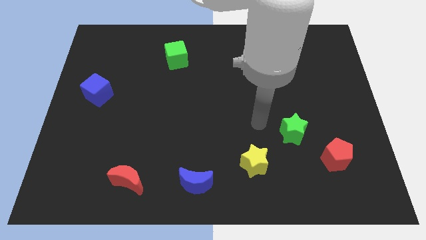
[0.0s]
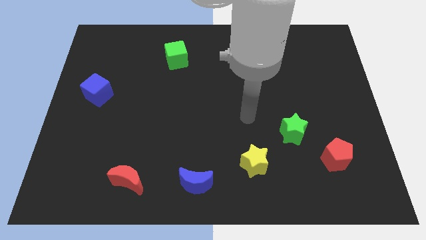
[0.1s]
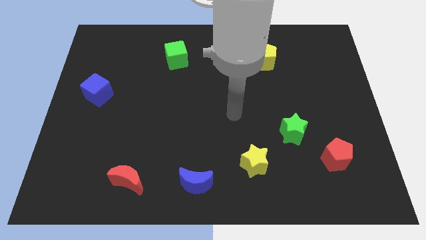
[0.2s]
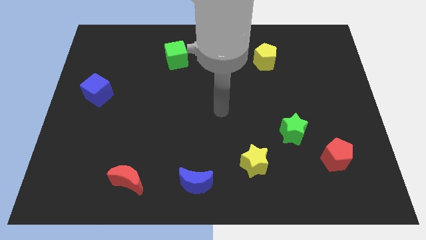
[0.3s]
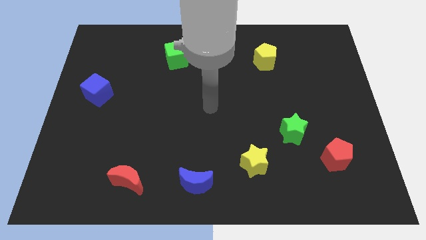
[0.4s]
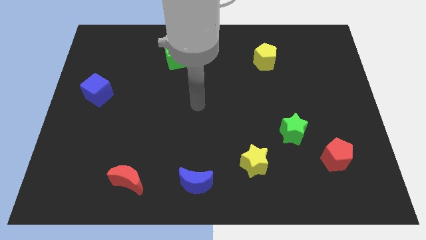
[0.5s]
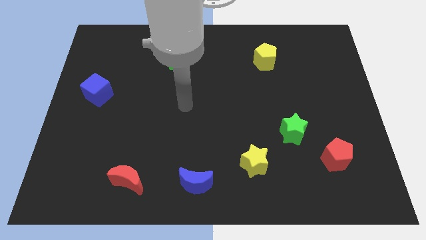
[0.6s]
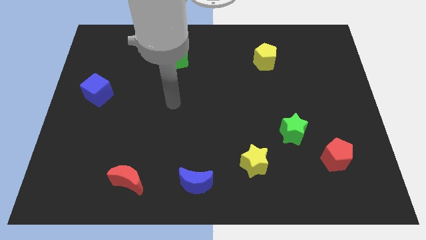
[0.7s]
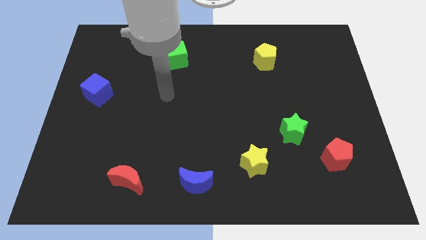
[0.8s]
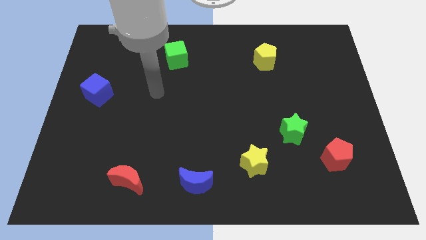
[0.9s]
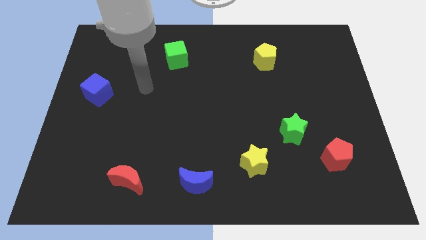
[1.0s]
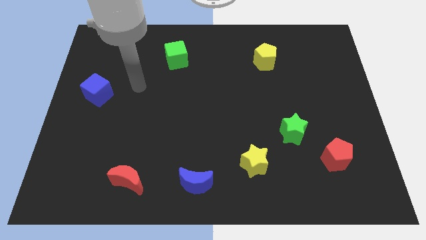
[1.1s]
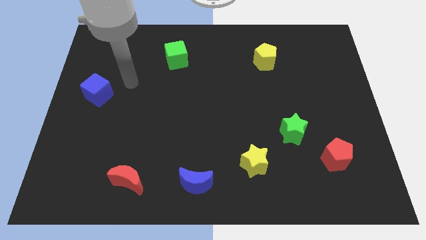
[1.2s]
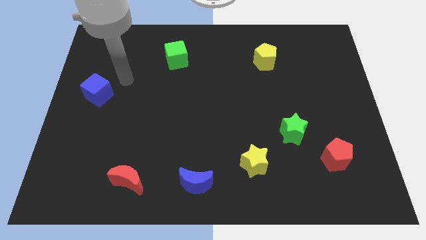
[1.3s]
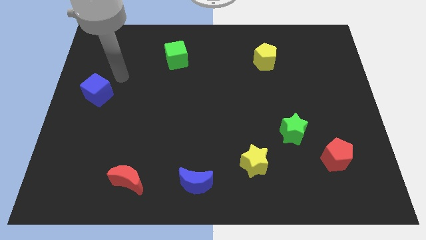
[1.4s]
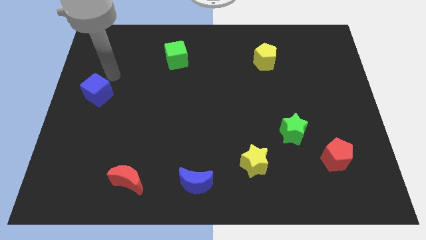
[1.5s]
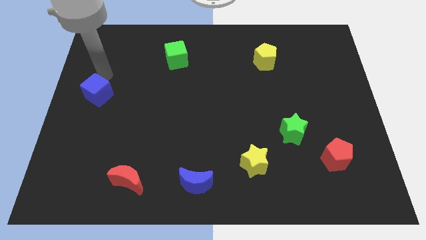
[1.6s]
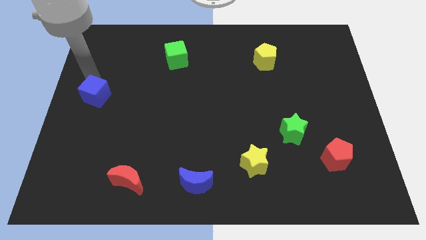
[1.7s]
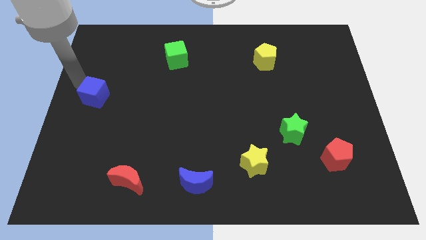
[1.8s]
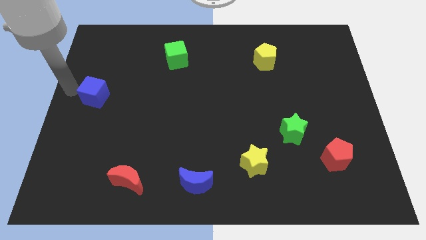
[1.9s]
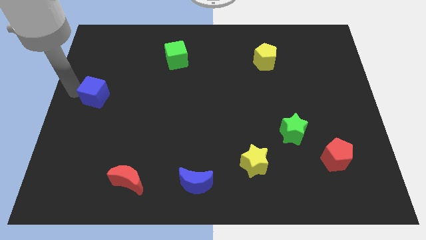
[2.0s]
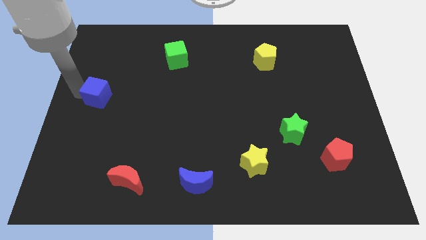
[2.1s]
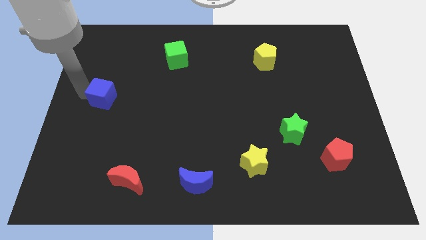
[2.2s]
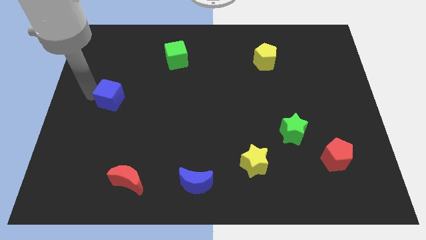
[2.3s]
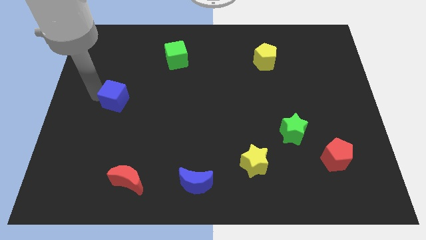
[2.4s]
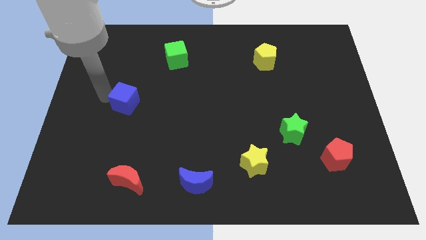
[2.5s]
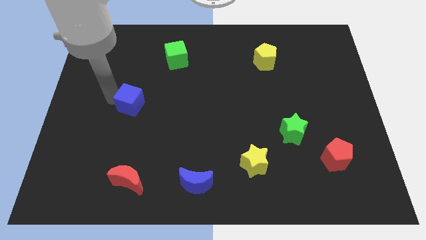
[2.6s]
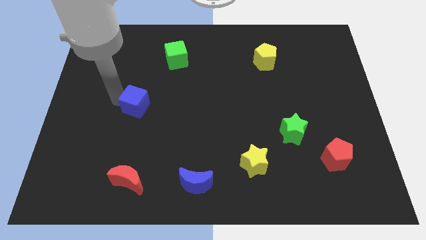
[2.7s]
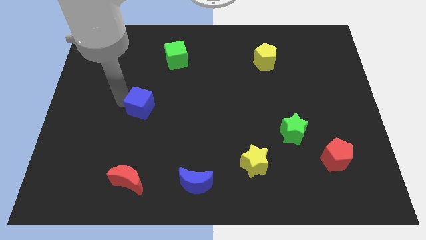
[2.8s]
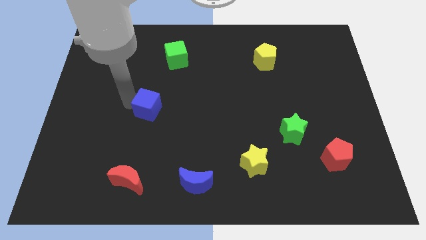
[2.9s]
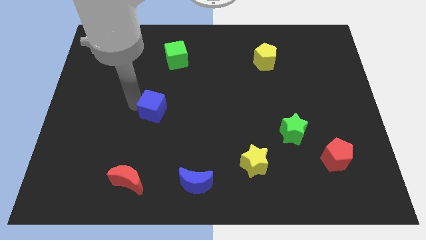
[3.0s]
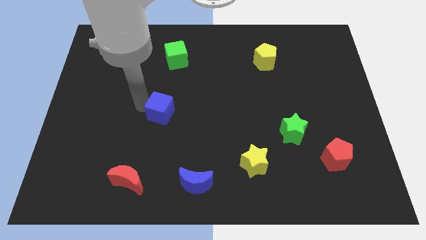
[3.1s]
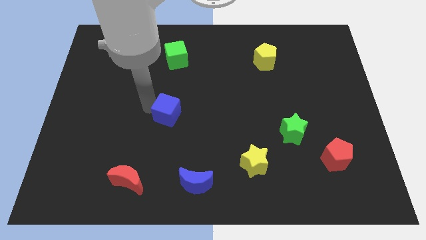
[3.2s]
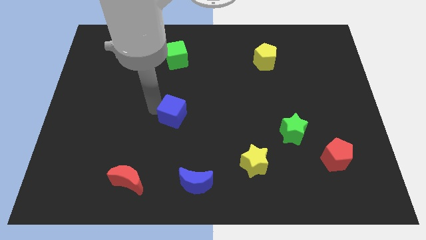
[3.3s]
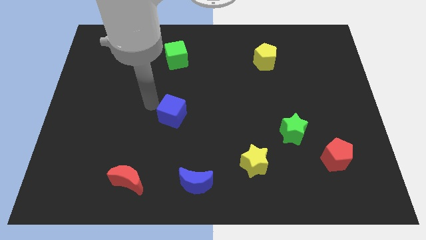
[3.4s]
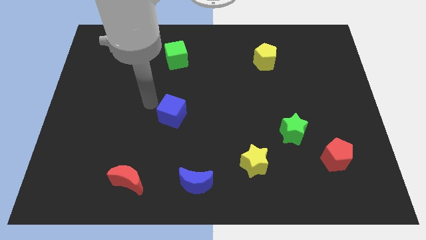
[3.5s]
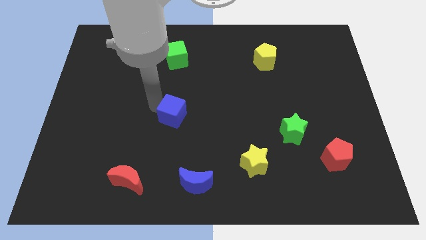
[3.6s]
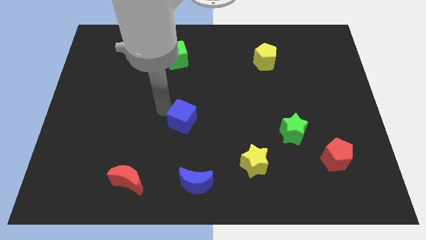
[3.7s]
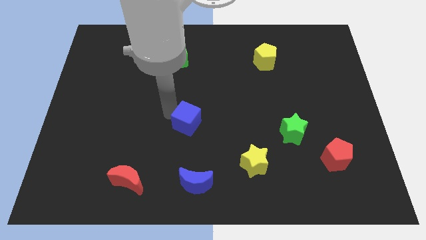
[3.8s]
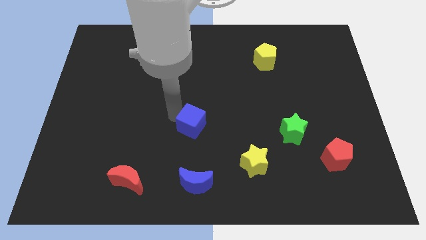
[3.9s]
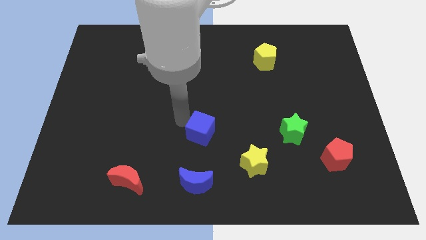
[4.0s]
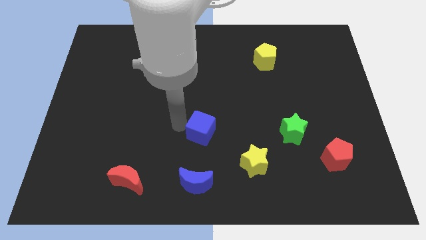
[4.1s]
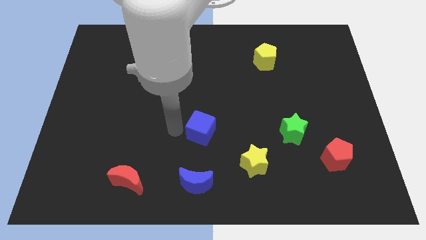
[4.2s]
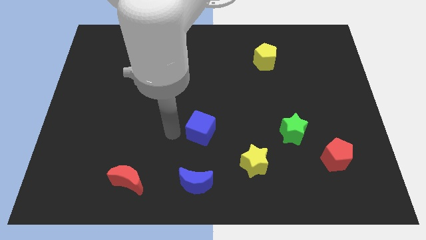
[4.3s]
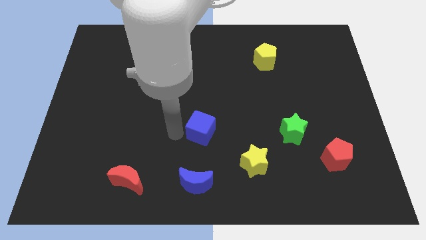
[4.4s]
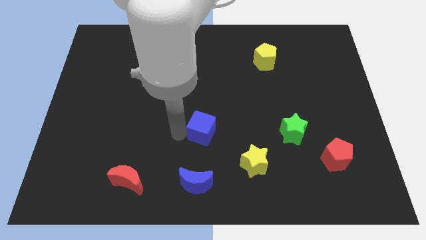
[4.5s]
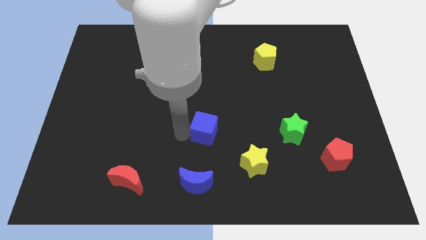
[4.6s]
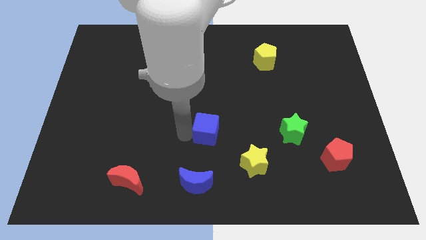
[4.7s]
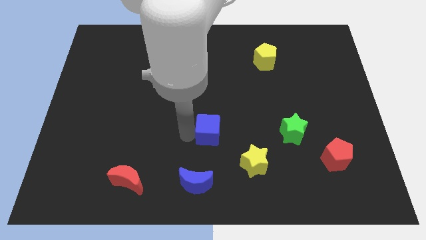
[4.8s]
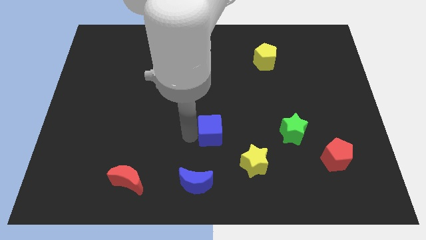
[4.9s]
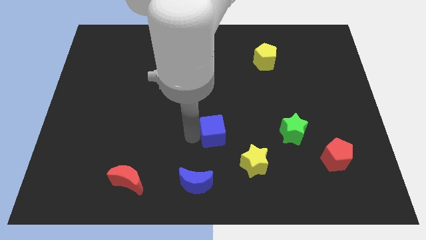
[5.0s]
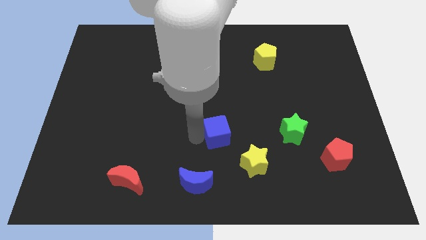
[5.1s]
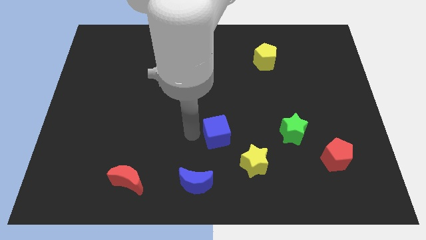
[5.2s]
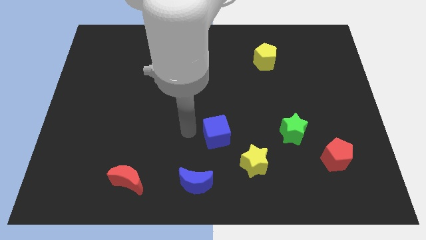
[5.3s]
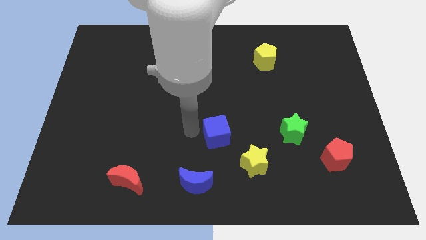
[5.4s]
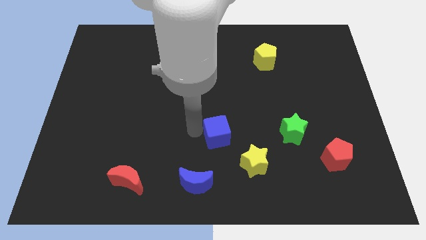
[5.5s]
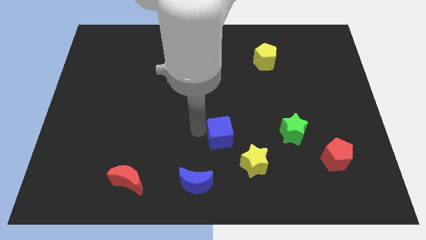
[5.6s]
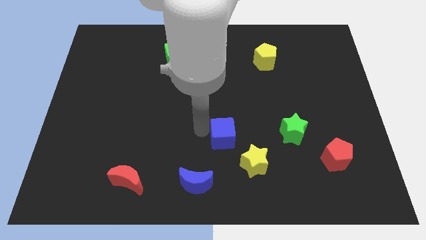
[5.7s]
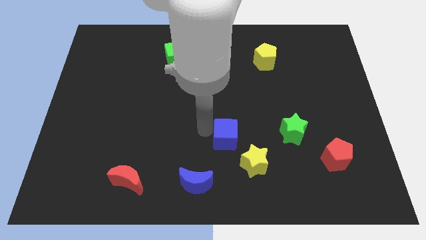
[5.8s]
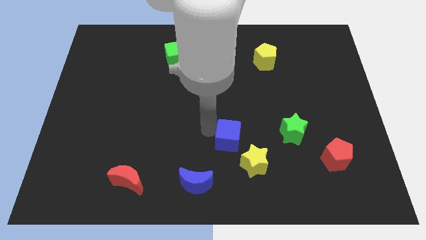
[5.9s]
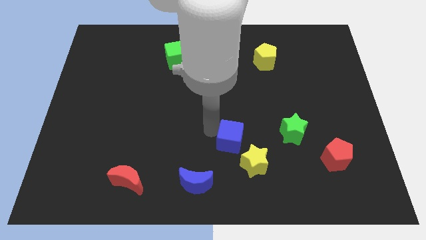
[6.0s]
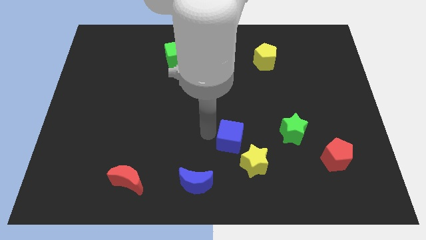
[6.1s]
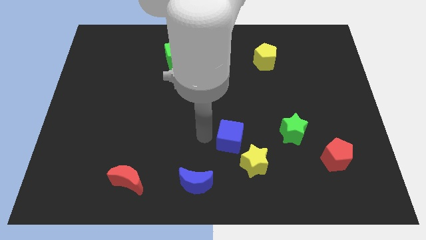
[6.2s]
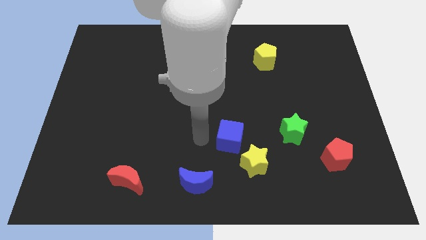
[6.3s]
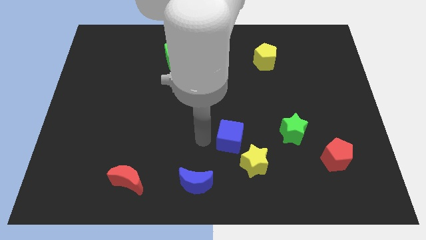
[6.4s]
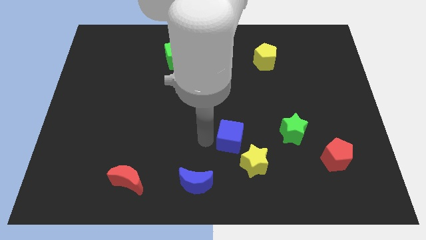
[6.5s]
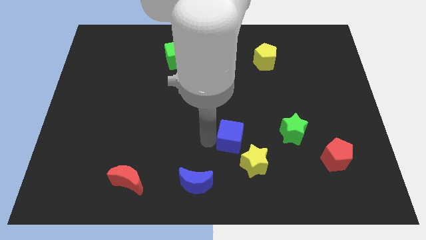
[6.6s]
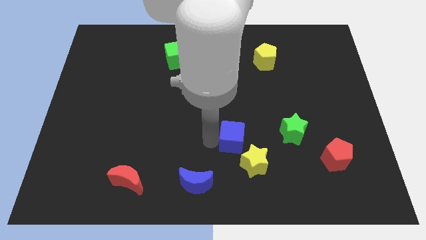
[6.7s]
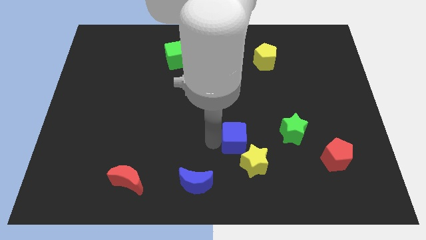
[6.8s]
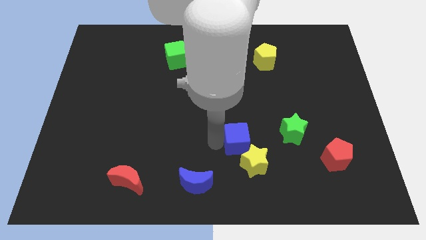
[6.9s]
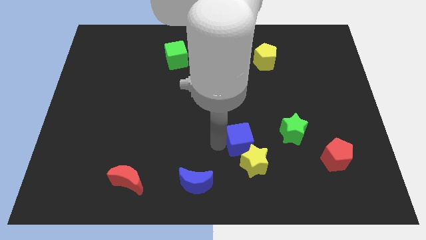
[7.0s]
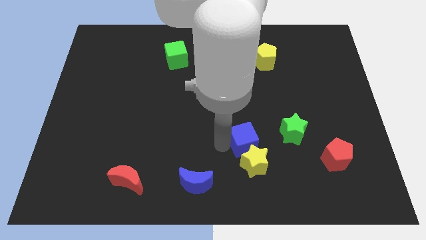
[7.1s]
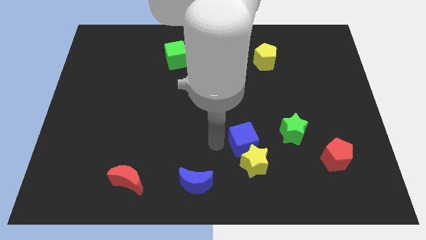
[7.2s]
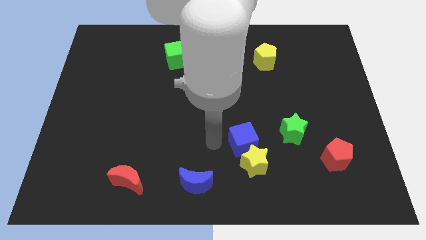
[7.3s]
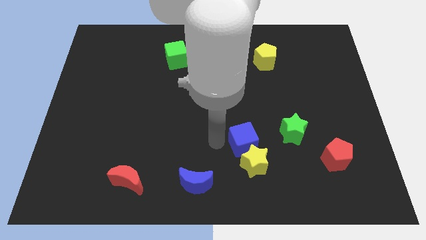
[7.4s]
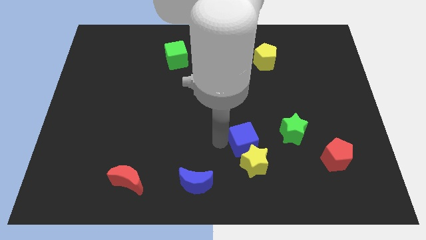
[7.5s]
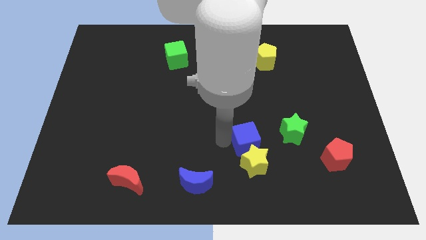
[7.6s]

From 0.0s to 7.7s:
slide the blue cube diagonally up and to the right of the yellow star
